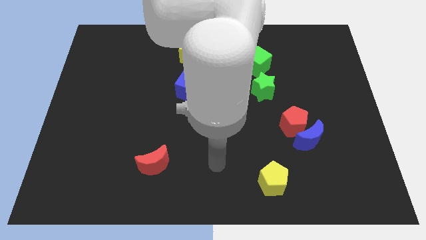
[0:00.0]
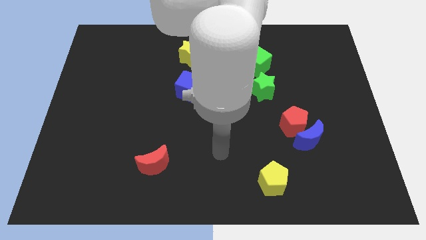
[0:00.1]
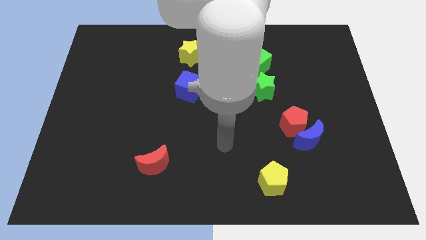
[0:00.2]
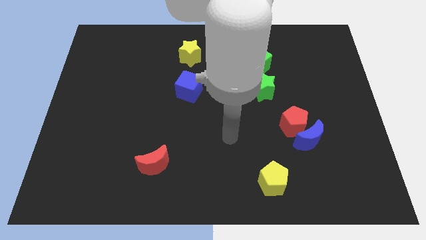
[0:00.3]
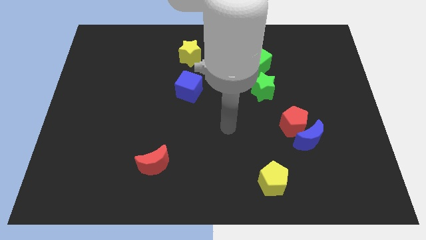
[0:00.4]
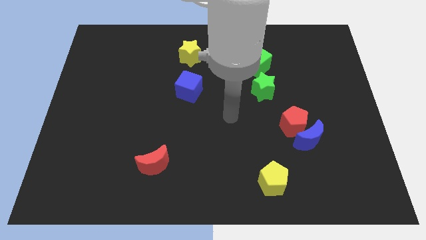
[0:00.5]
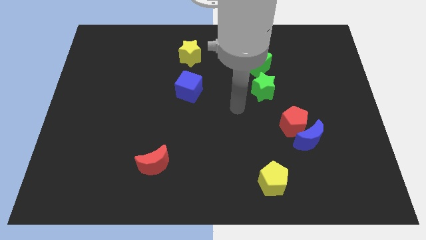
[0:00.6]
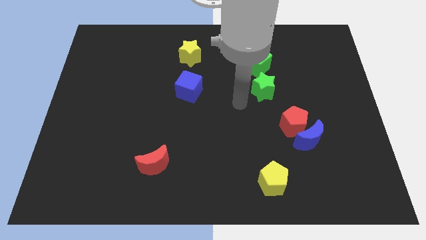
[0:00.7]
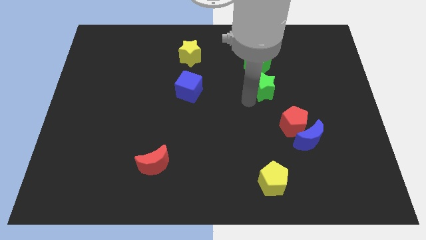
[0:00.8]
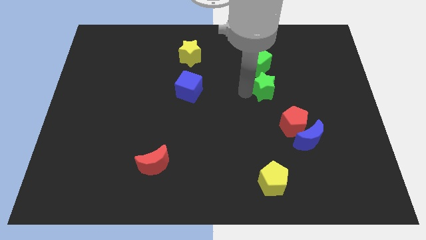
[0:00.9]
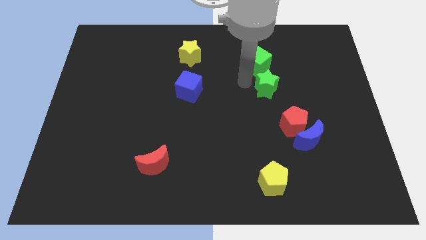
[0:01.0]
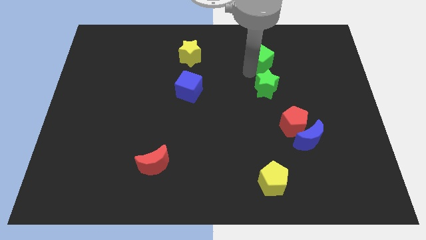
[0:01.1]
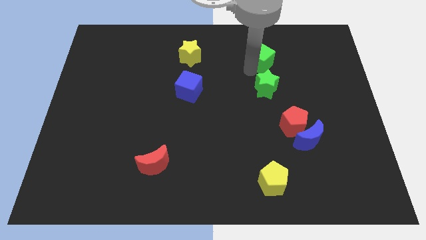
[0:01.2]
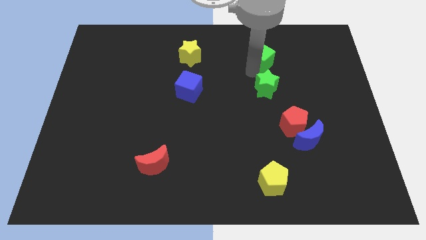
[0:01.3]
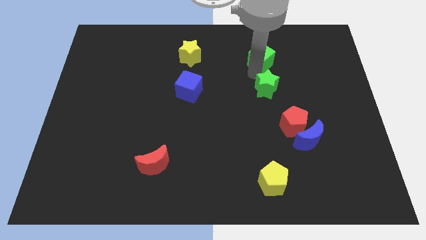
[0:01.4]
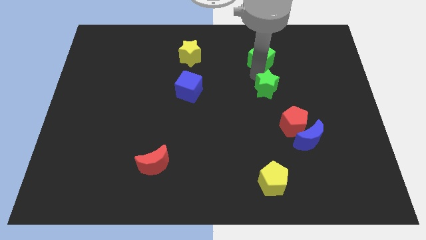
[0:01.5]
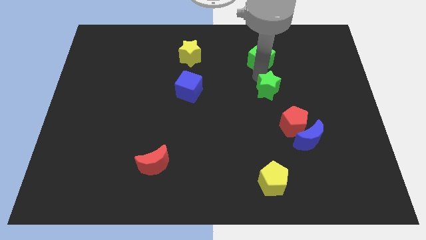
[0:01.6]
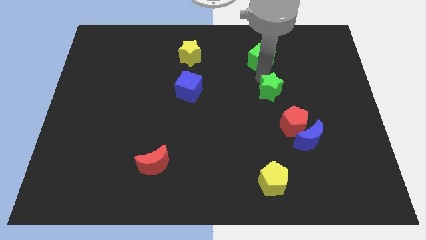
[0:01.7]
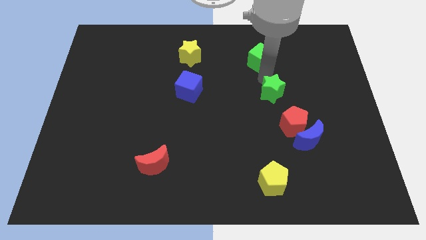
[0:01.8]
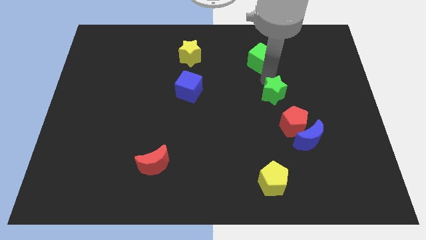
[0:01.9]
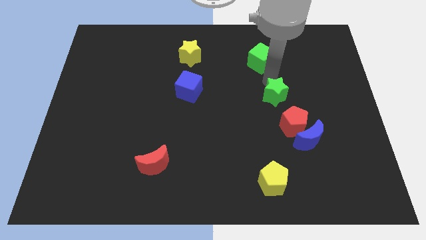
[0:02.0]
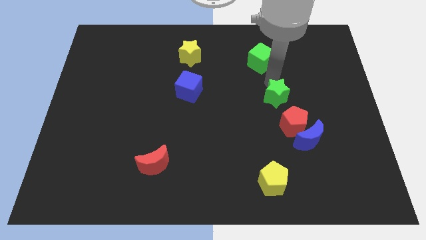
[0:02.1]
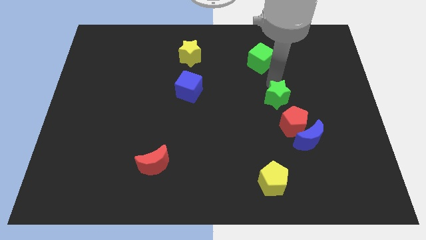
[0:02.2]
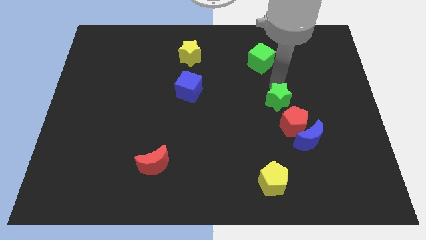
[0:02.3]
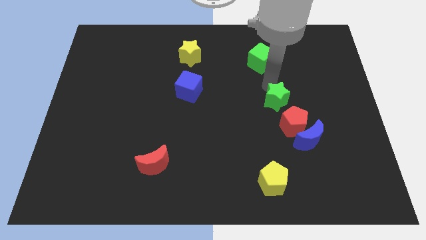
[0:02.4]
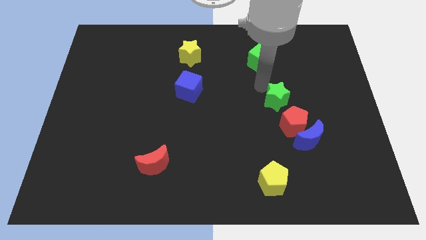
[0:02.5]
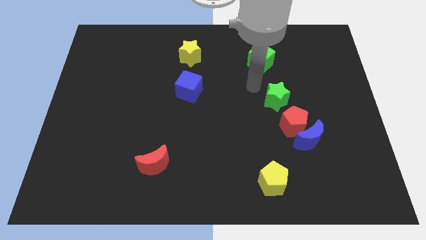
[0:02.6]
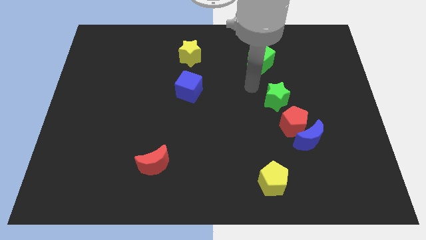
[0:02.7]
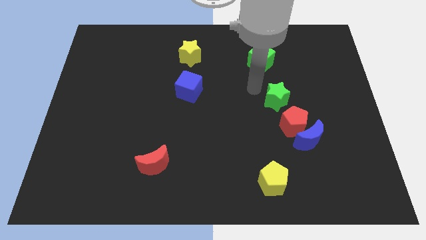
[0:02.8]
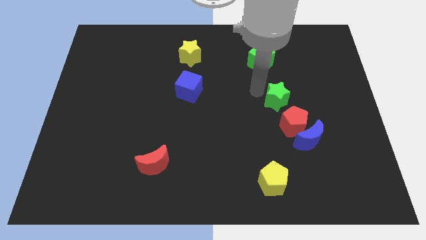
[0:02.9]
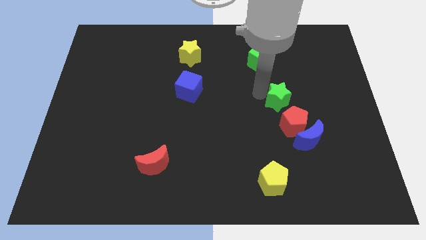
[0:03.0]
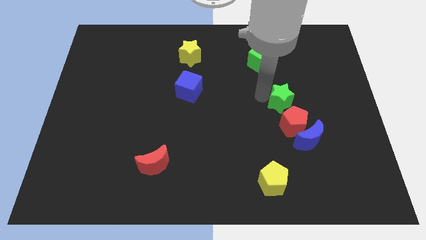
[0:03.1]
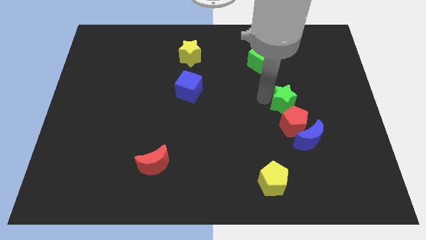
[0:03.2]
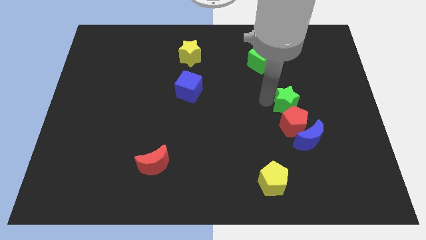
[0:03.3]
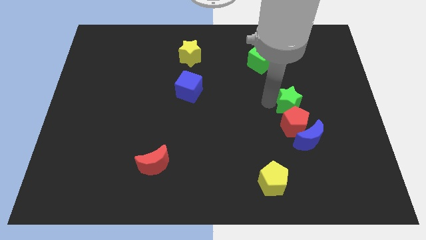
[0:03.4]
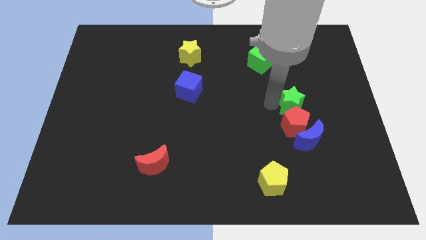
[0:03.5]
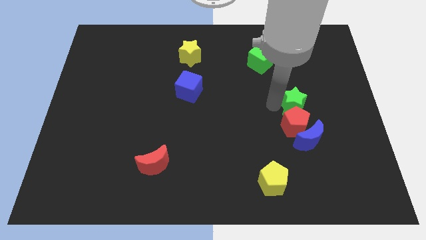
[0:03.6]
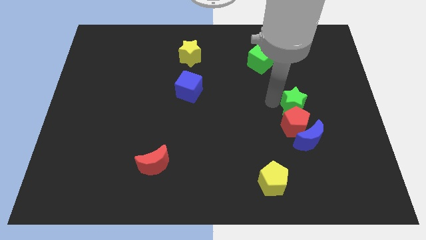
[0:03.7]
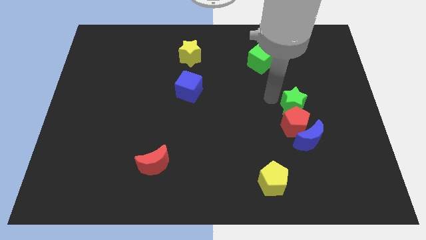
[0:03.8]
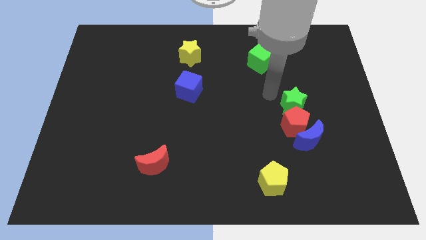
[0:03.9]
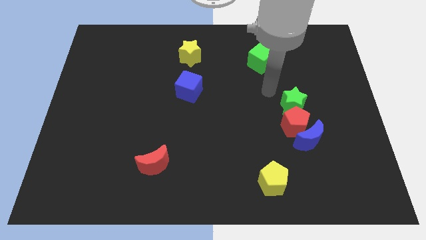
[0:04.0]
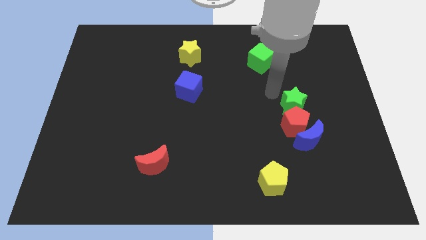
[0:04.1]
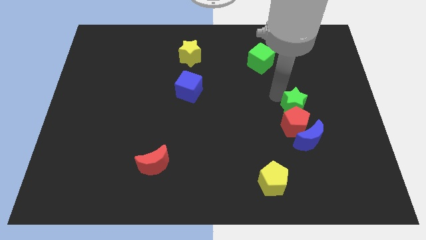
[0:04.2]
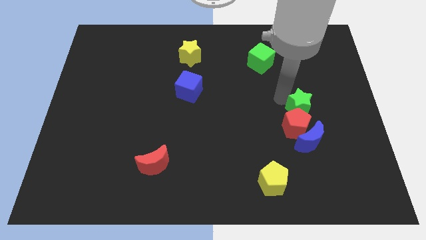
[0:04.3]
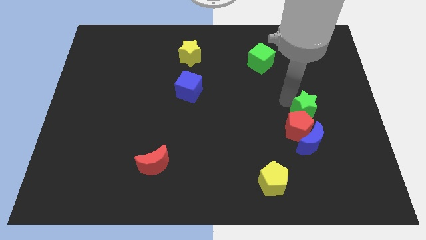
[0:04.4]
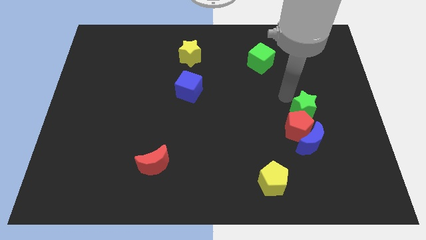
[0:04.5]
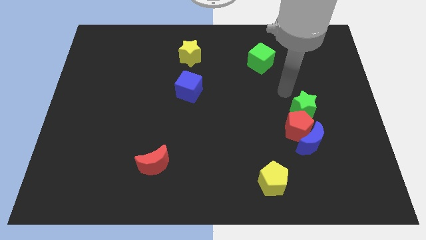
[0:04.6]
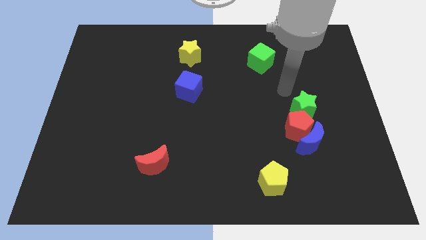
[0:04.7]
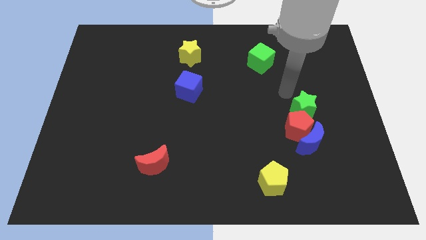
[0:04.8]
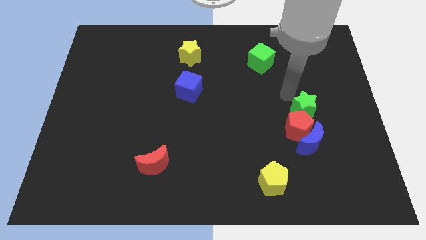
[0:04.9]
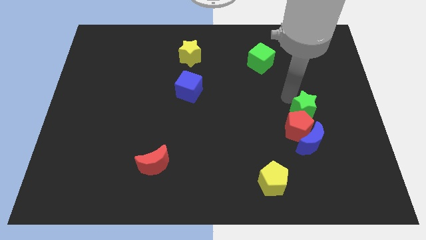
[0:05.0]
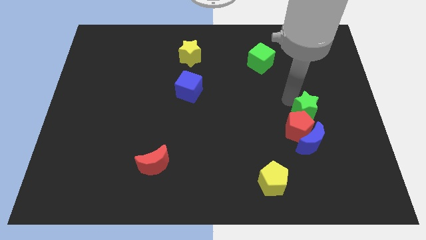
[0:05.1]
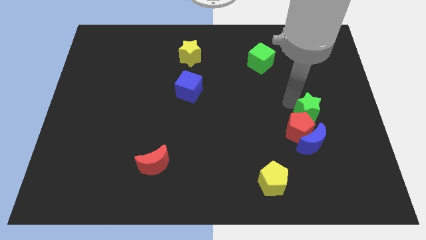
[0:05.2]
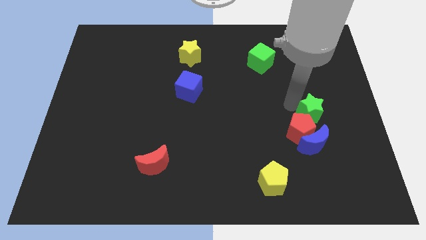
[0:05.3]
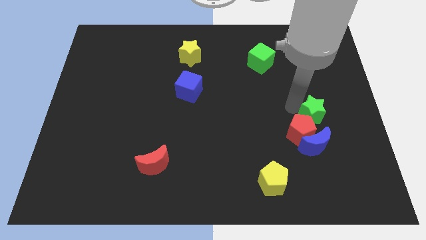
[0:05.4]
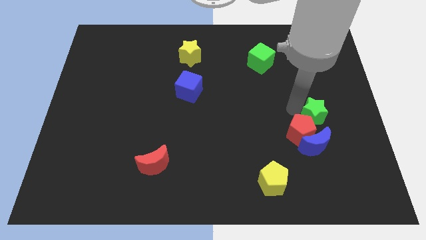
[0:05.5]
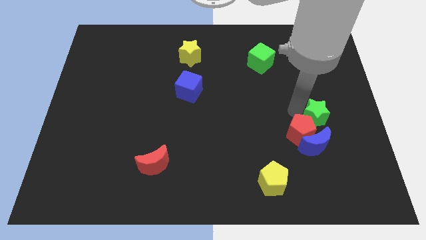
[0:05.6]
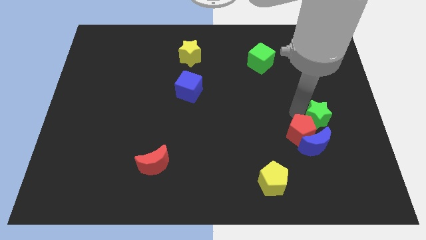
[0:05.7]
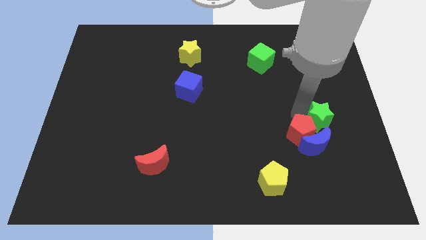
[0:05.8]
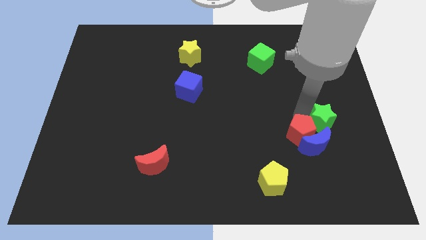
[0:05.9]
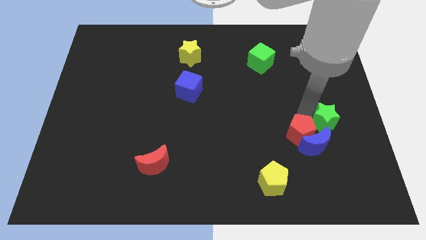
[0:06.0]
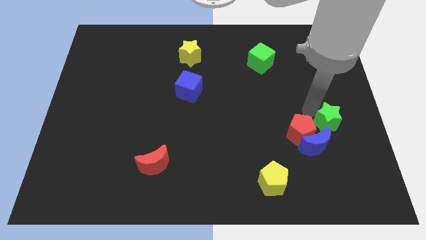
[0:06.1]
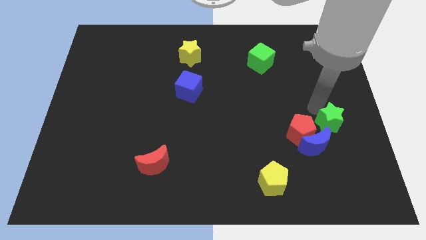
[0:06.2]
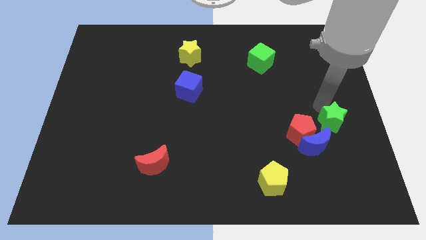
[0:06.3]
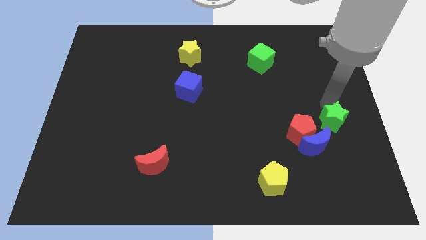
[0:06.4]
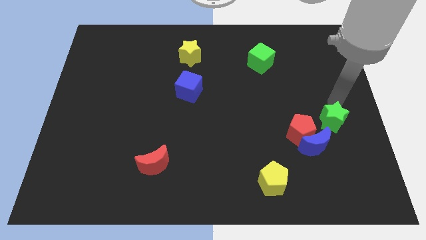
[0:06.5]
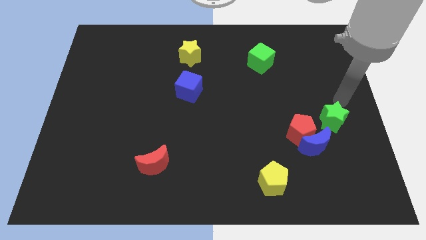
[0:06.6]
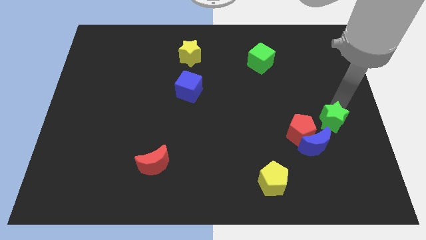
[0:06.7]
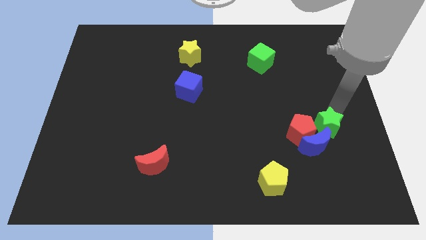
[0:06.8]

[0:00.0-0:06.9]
move the green star next to the blue moon
